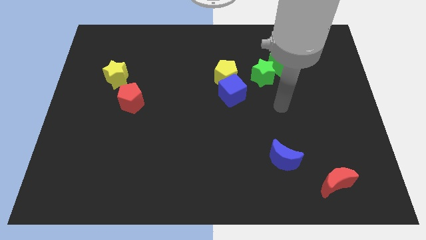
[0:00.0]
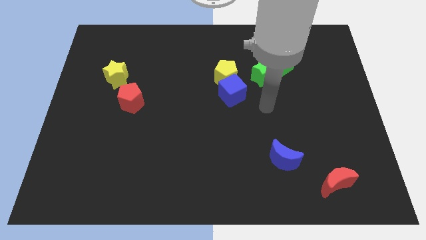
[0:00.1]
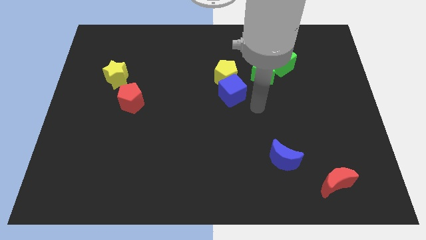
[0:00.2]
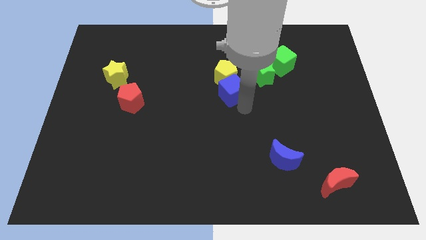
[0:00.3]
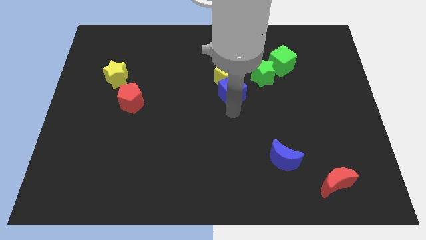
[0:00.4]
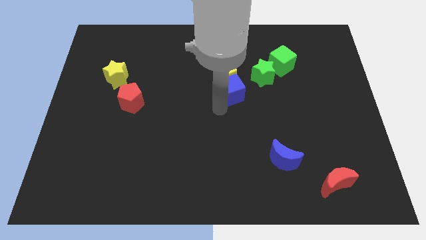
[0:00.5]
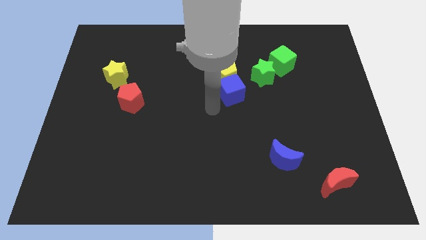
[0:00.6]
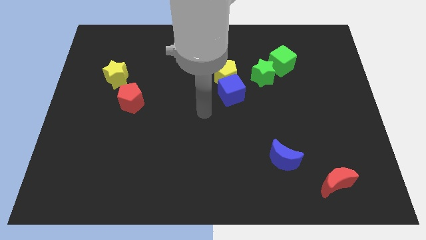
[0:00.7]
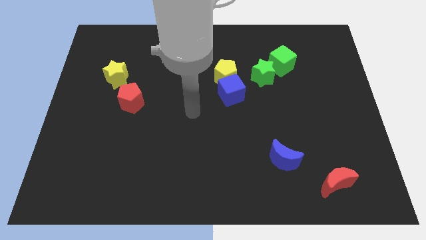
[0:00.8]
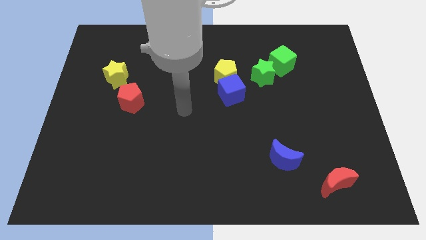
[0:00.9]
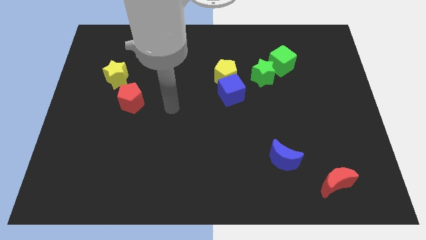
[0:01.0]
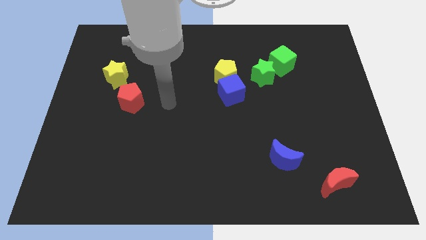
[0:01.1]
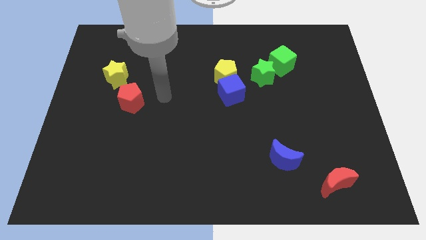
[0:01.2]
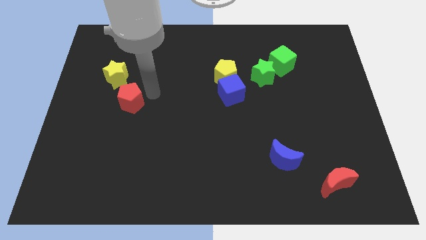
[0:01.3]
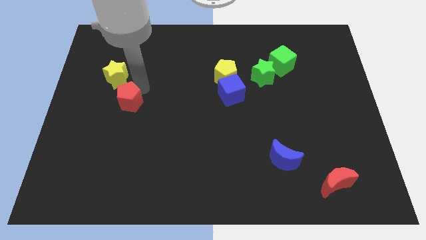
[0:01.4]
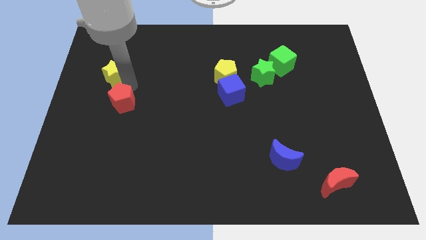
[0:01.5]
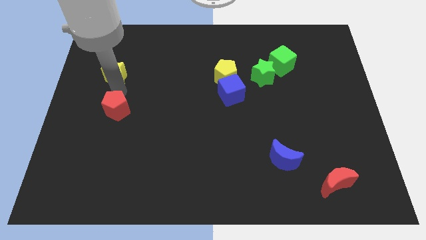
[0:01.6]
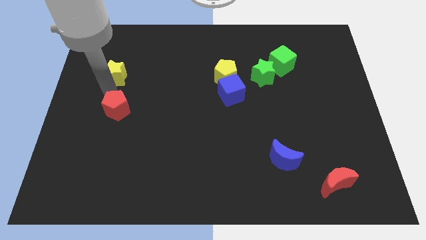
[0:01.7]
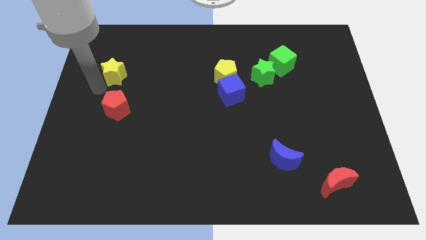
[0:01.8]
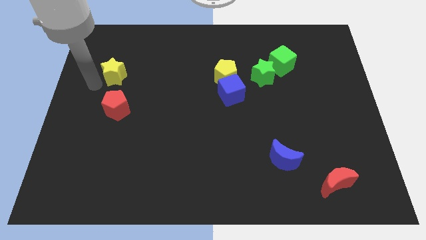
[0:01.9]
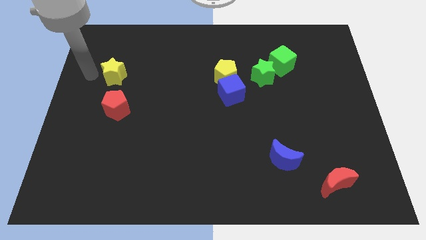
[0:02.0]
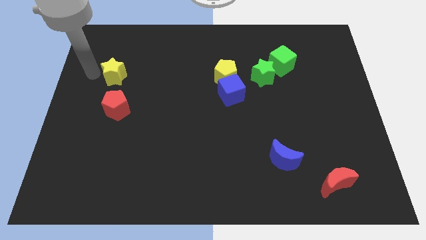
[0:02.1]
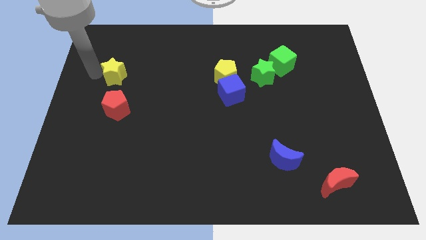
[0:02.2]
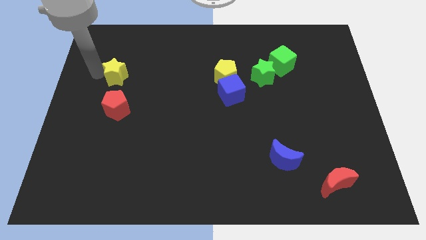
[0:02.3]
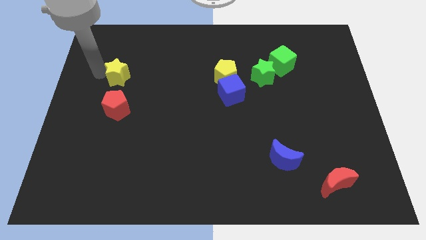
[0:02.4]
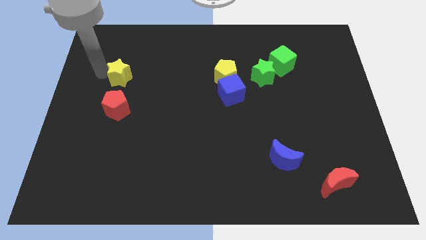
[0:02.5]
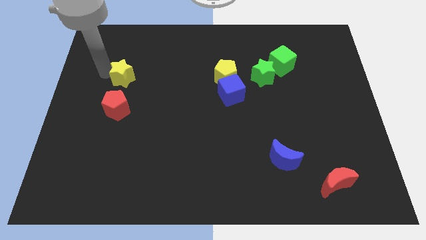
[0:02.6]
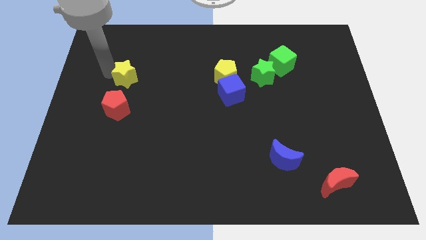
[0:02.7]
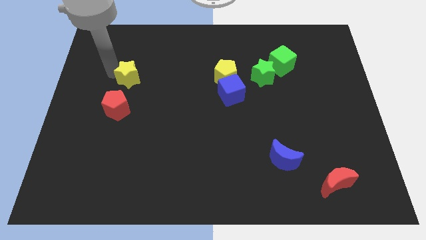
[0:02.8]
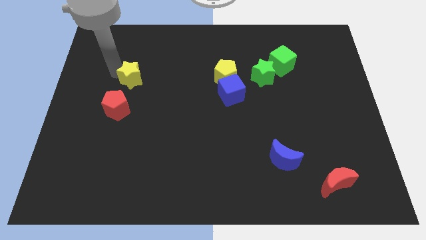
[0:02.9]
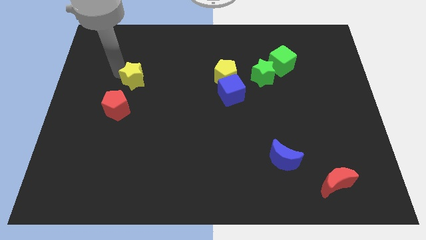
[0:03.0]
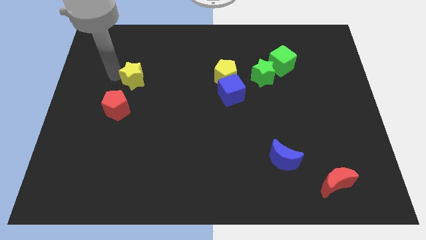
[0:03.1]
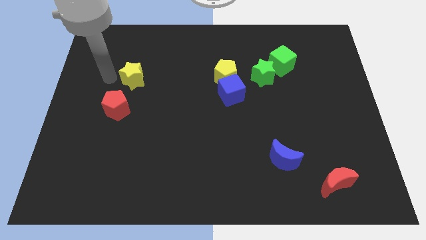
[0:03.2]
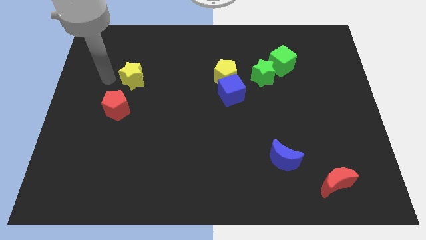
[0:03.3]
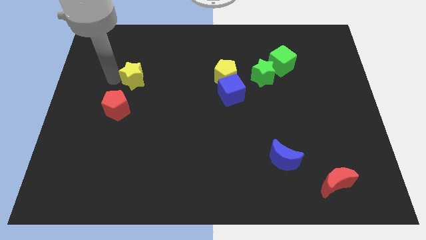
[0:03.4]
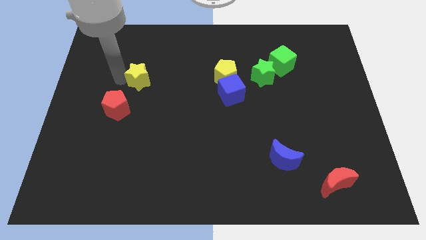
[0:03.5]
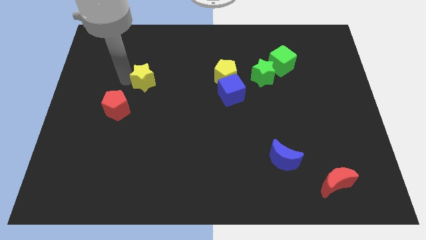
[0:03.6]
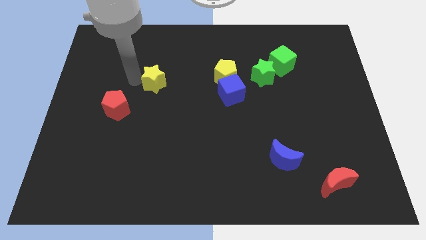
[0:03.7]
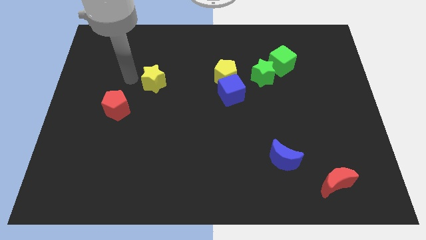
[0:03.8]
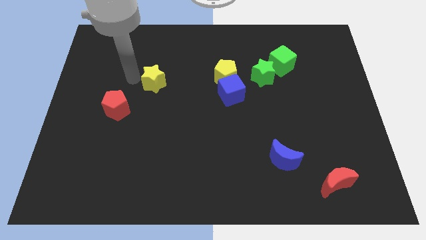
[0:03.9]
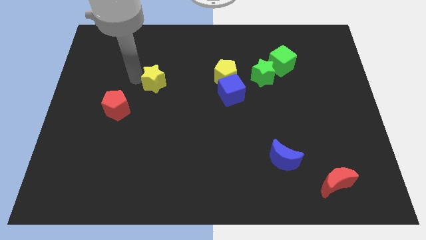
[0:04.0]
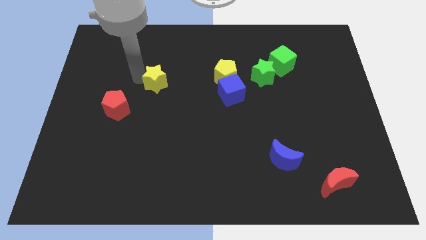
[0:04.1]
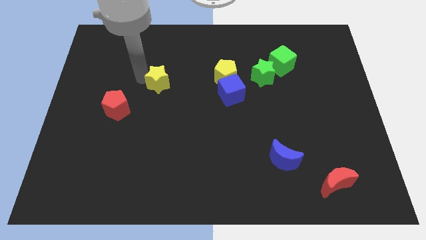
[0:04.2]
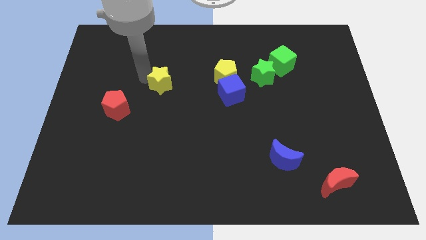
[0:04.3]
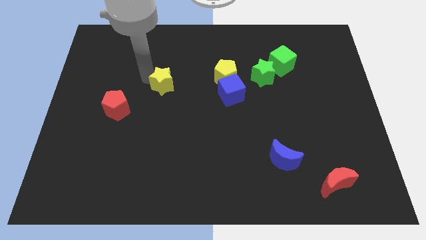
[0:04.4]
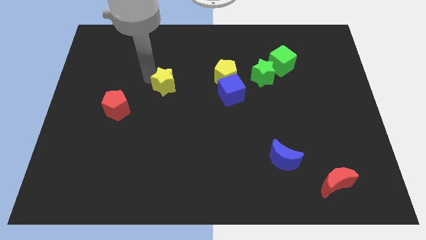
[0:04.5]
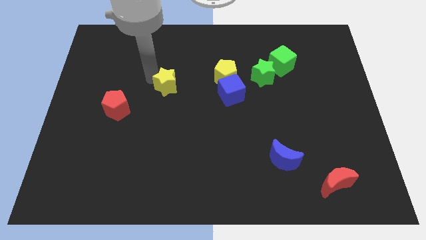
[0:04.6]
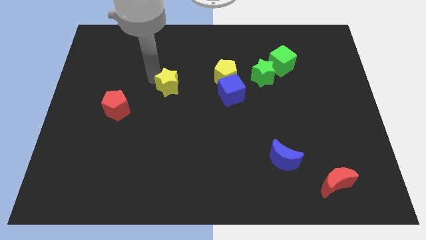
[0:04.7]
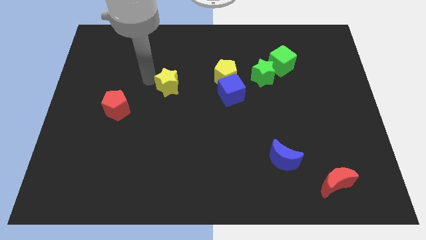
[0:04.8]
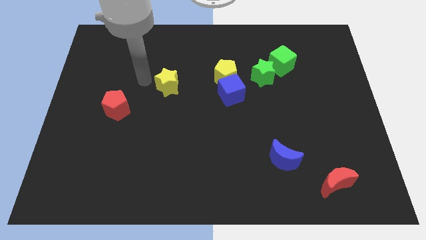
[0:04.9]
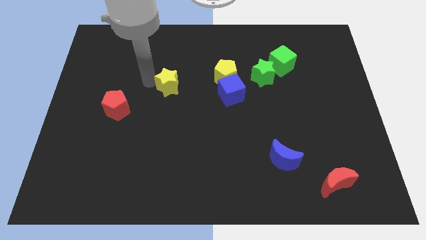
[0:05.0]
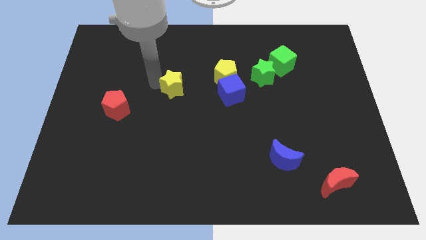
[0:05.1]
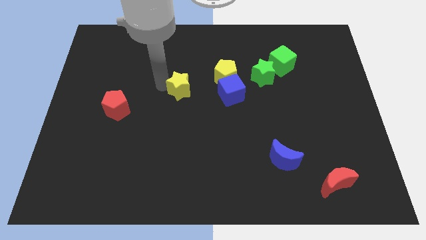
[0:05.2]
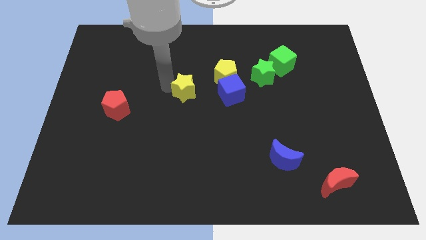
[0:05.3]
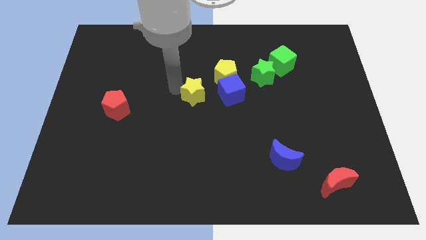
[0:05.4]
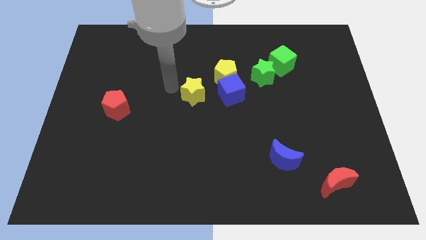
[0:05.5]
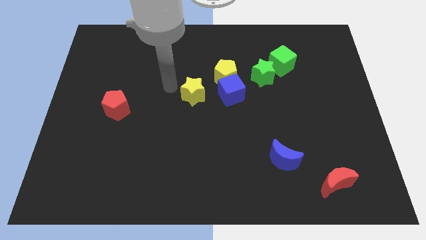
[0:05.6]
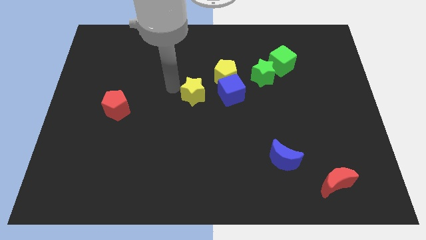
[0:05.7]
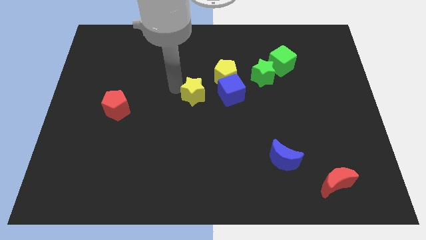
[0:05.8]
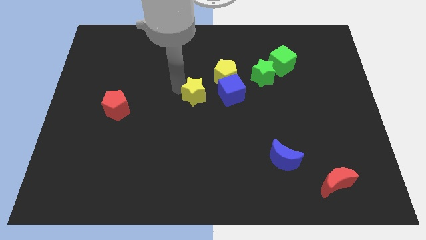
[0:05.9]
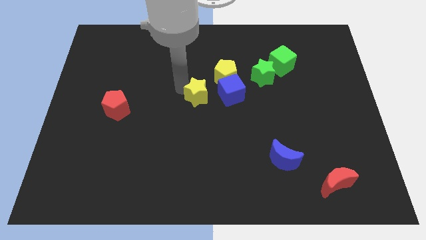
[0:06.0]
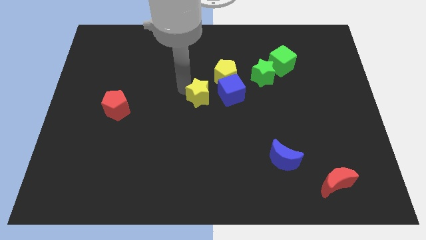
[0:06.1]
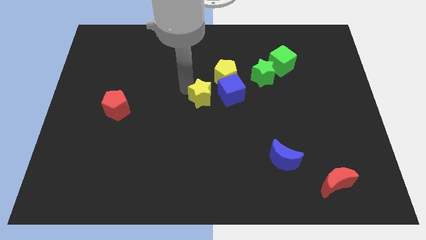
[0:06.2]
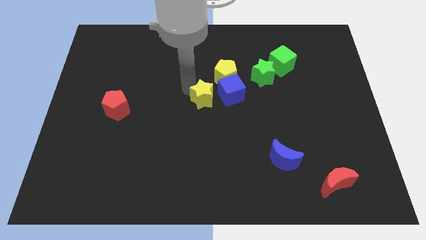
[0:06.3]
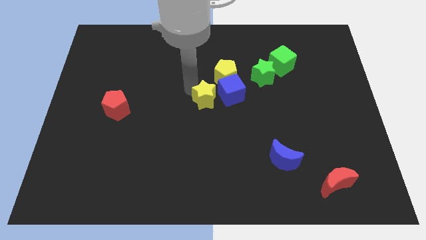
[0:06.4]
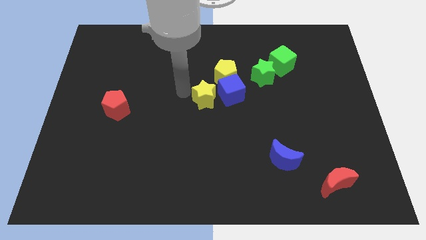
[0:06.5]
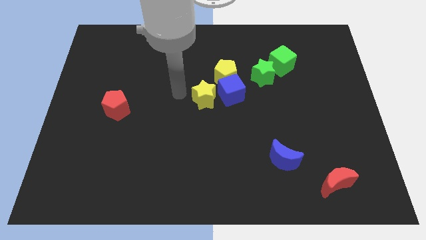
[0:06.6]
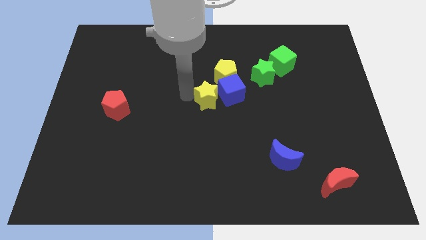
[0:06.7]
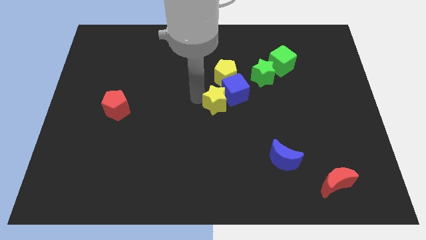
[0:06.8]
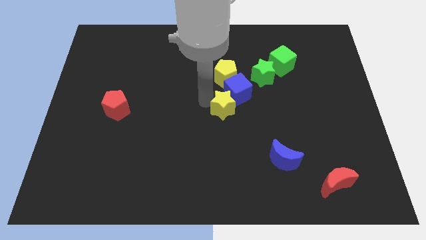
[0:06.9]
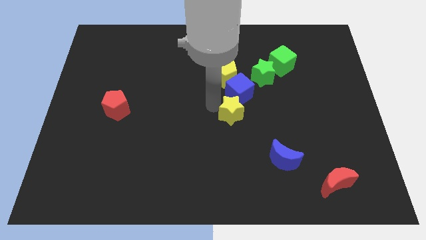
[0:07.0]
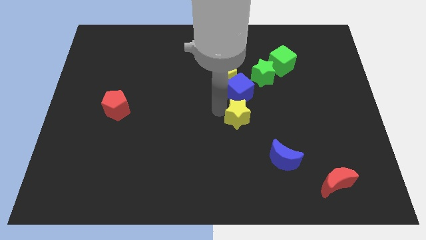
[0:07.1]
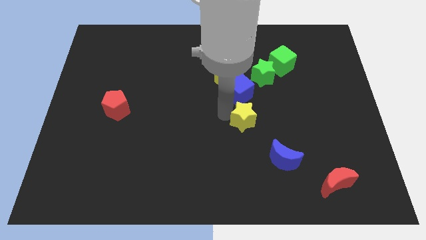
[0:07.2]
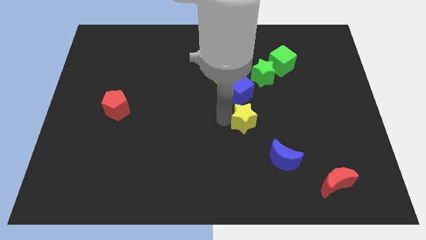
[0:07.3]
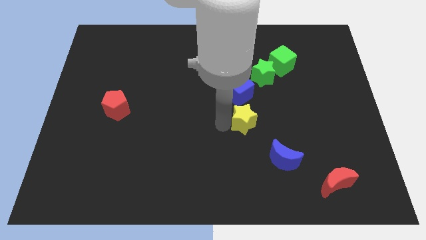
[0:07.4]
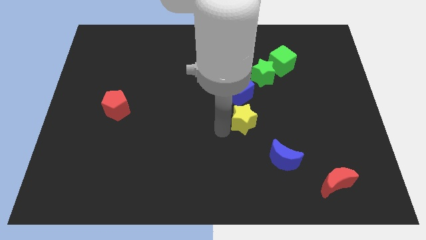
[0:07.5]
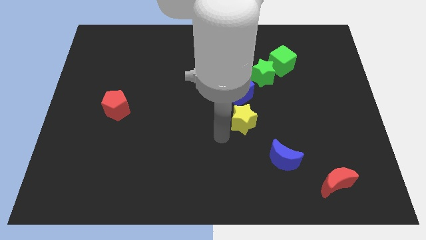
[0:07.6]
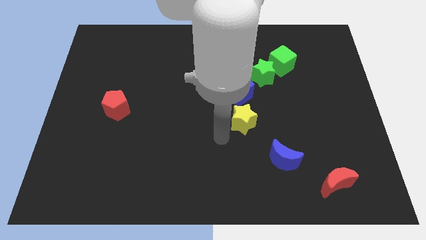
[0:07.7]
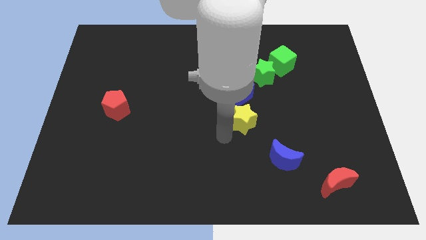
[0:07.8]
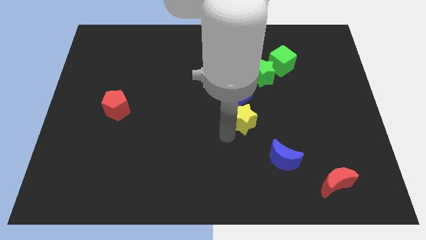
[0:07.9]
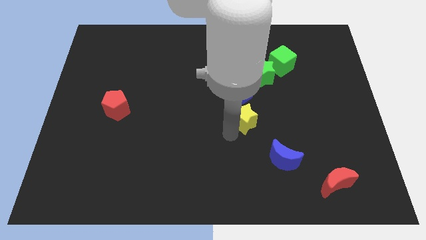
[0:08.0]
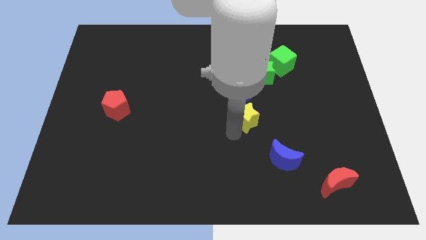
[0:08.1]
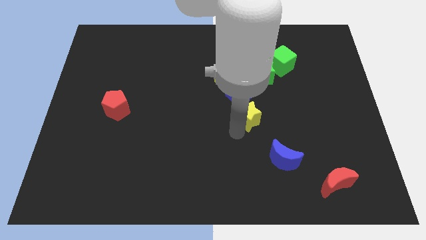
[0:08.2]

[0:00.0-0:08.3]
push the yellow star diagonally down and to the right of the blue cube
